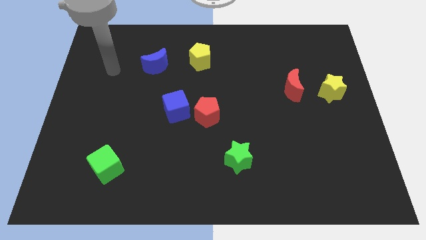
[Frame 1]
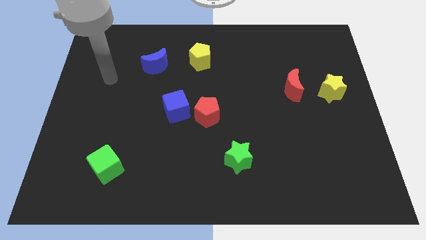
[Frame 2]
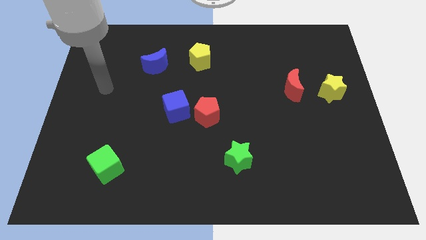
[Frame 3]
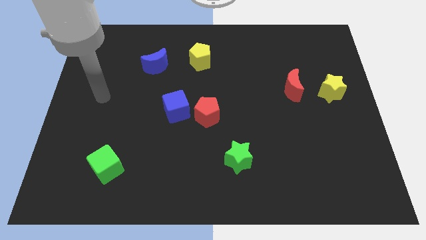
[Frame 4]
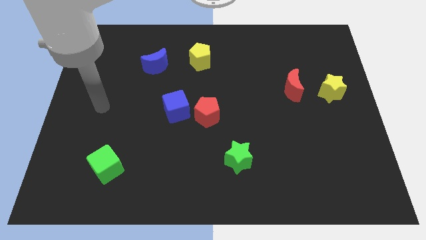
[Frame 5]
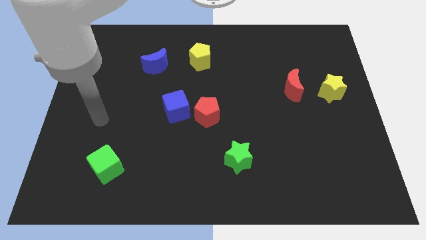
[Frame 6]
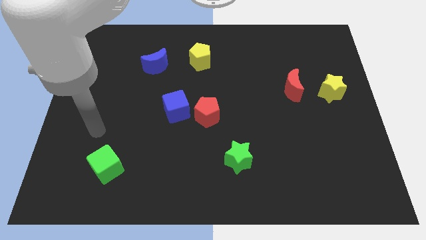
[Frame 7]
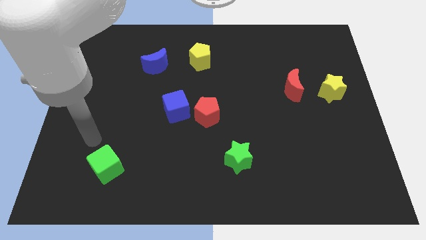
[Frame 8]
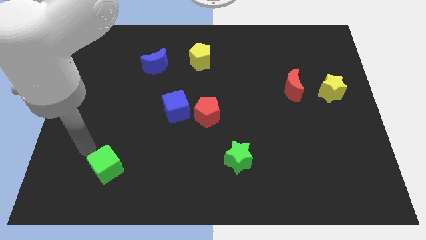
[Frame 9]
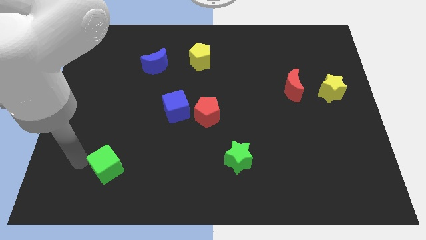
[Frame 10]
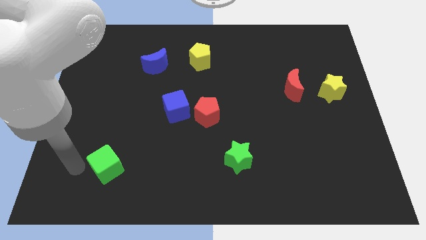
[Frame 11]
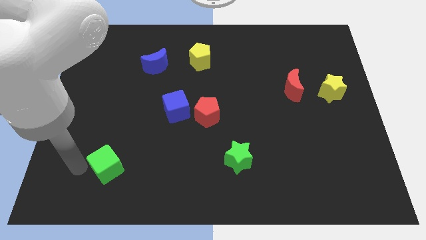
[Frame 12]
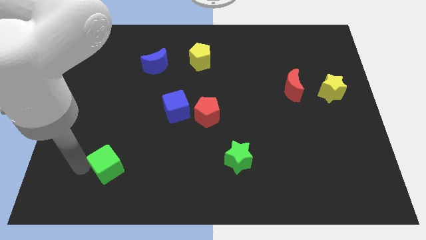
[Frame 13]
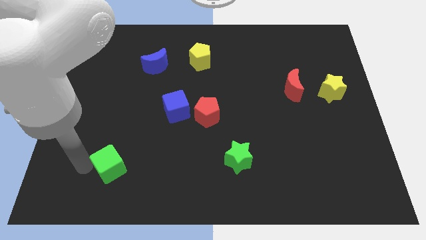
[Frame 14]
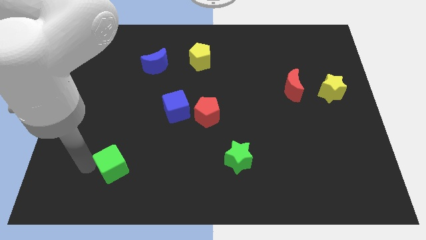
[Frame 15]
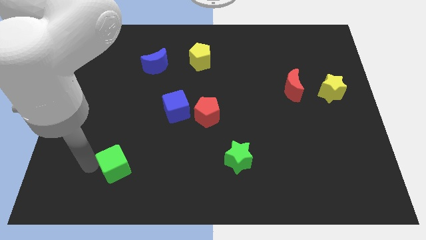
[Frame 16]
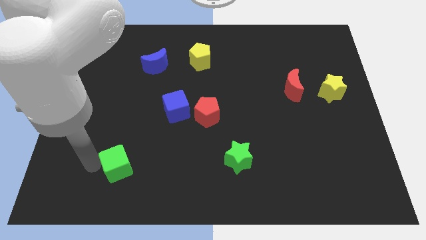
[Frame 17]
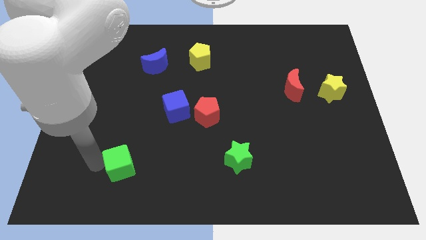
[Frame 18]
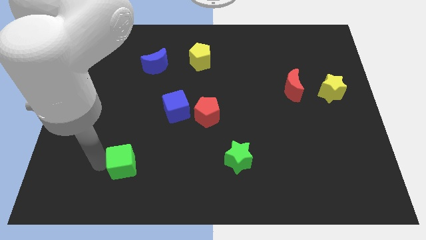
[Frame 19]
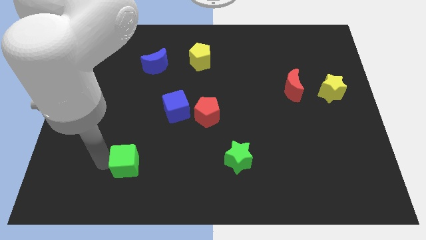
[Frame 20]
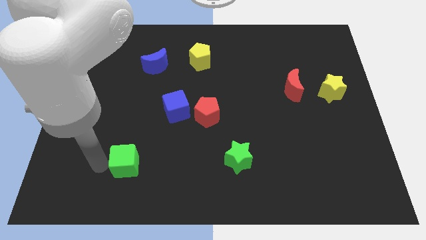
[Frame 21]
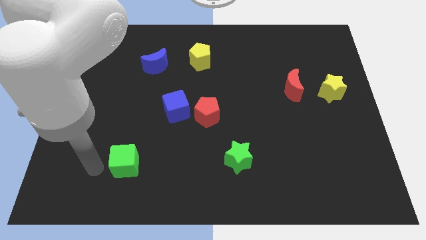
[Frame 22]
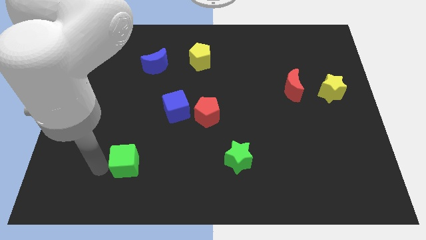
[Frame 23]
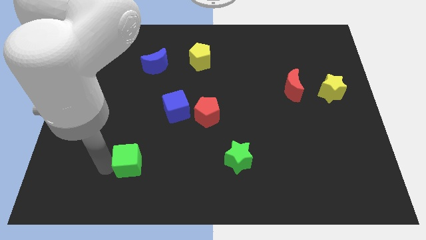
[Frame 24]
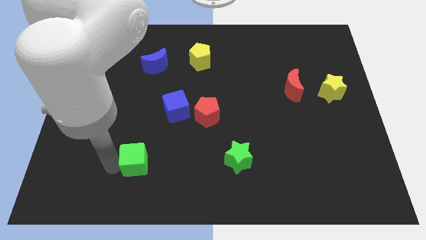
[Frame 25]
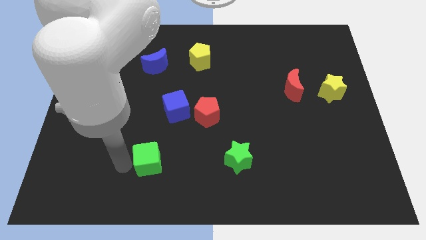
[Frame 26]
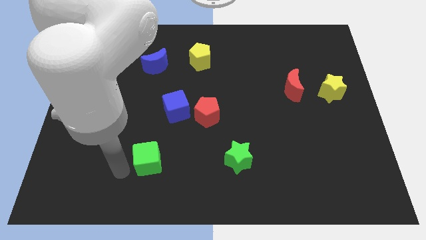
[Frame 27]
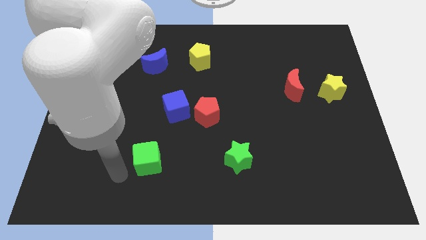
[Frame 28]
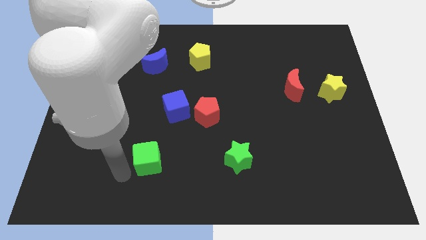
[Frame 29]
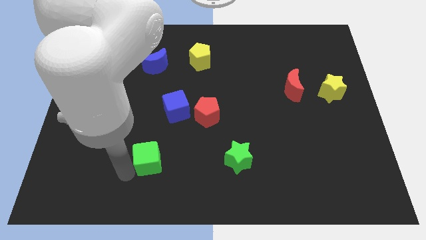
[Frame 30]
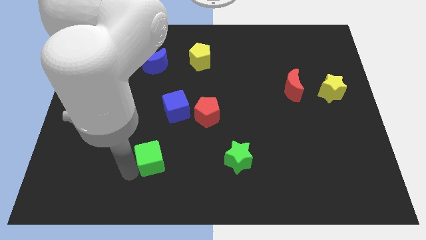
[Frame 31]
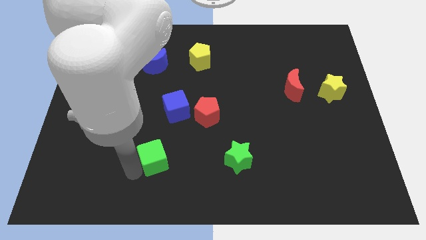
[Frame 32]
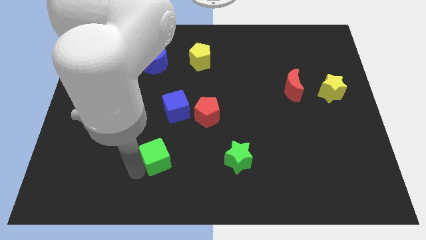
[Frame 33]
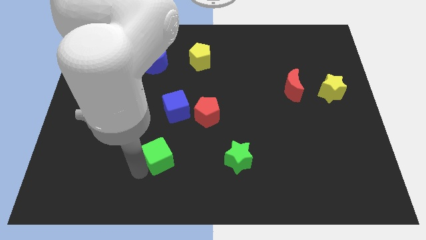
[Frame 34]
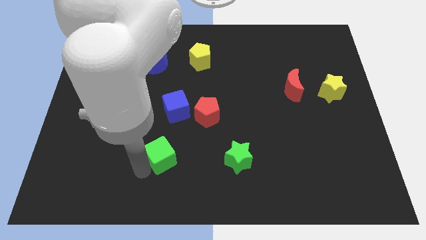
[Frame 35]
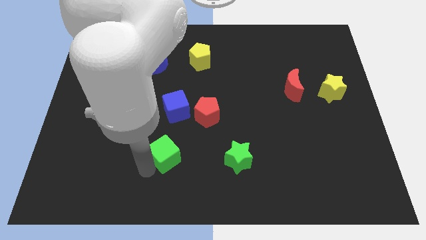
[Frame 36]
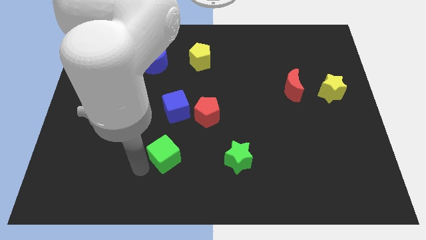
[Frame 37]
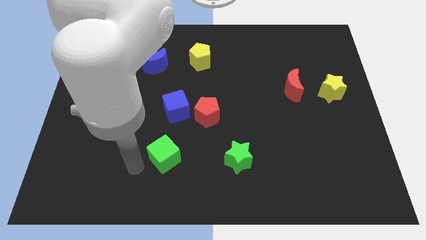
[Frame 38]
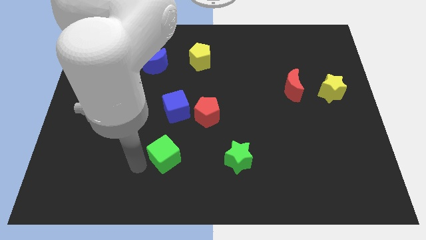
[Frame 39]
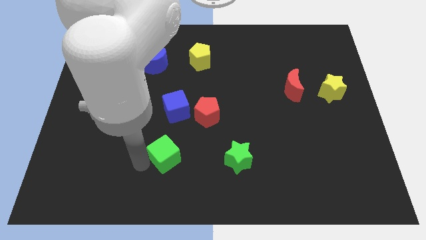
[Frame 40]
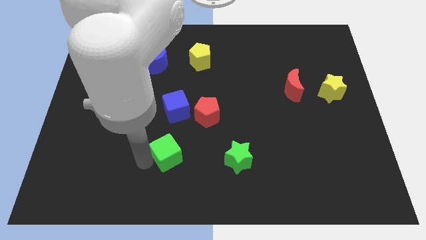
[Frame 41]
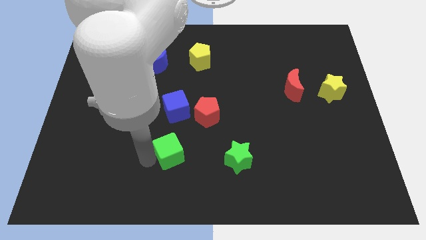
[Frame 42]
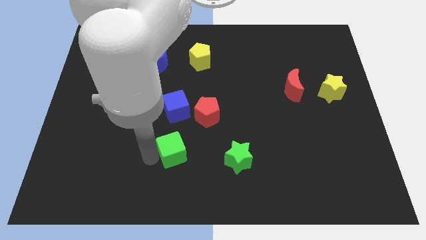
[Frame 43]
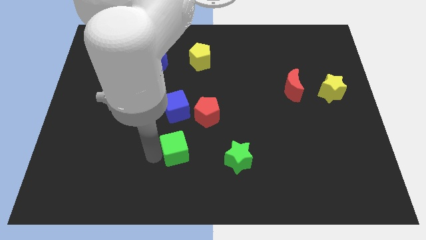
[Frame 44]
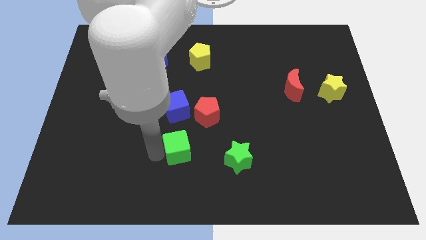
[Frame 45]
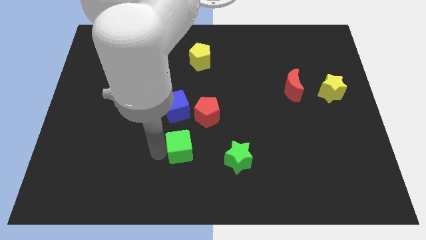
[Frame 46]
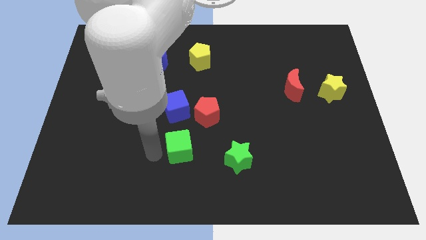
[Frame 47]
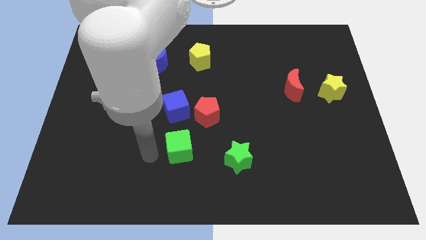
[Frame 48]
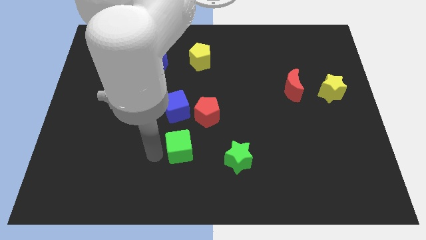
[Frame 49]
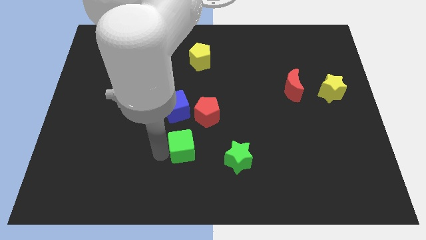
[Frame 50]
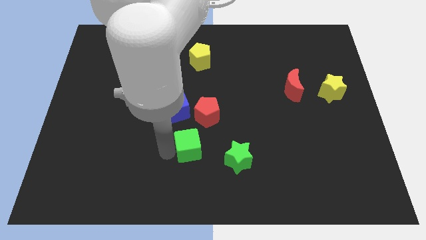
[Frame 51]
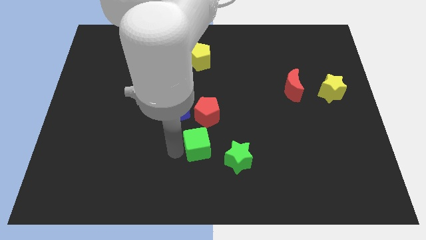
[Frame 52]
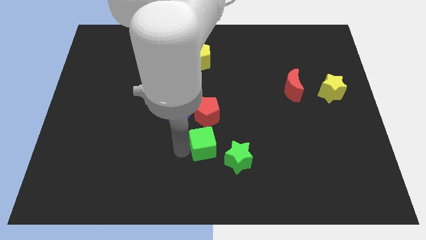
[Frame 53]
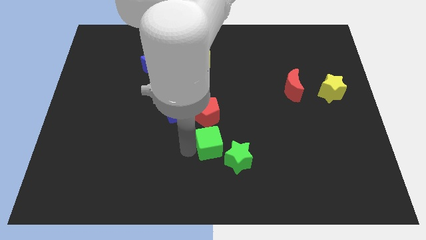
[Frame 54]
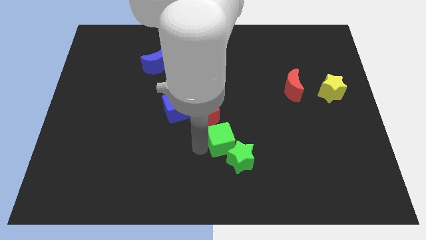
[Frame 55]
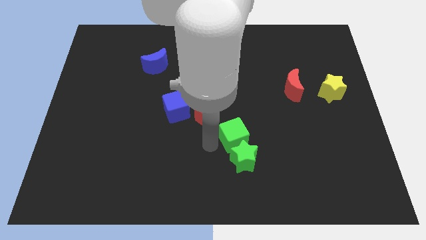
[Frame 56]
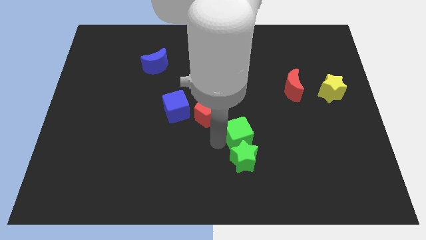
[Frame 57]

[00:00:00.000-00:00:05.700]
move the green cube diagonally up and to the right of the green star

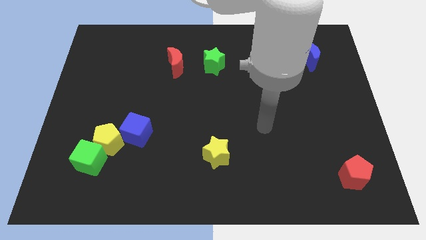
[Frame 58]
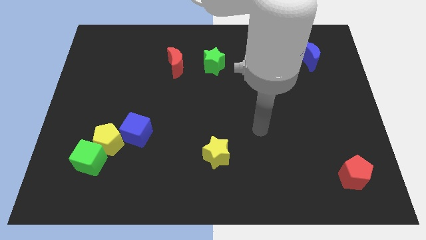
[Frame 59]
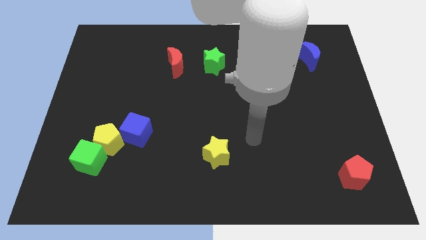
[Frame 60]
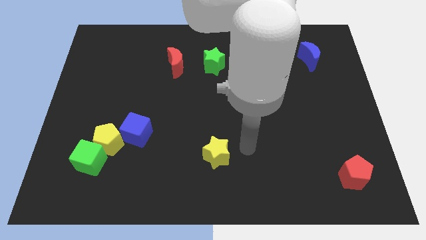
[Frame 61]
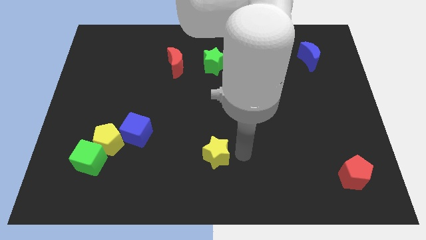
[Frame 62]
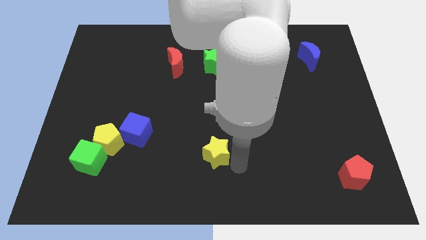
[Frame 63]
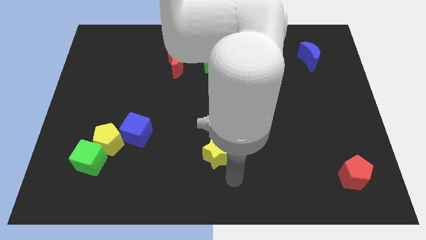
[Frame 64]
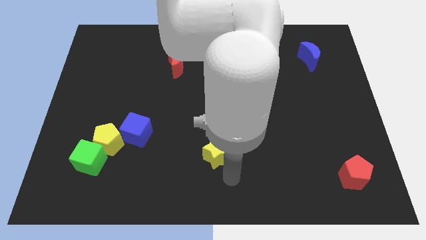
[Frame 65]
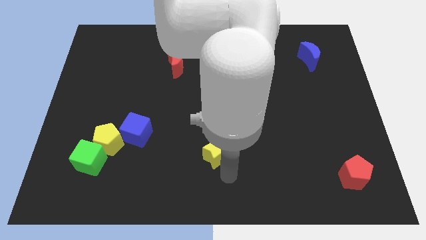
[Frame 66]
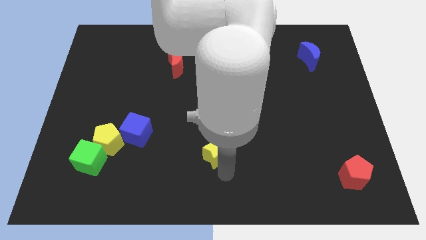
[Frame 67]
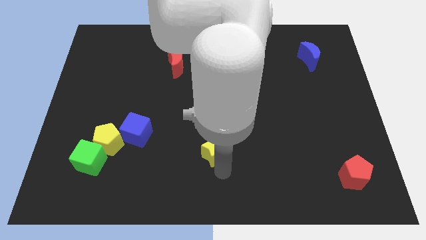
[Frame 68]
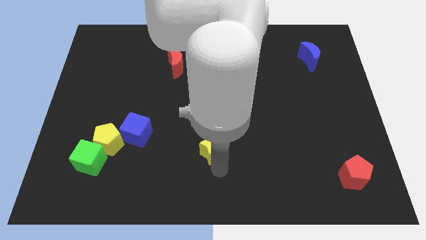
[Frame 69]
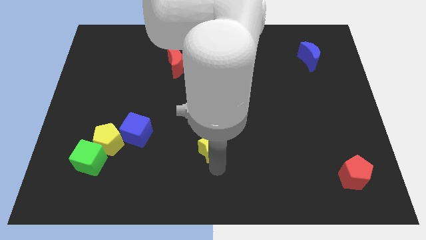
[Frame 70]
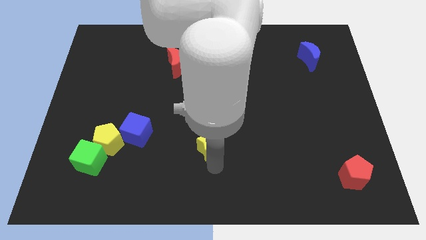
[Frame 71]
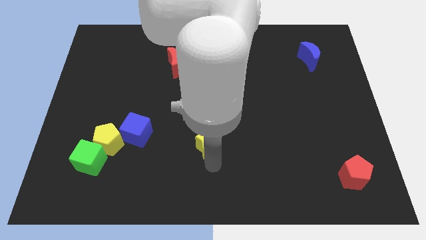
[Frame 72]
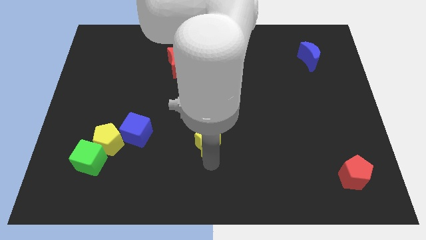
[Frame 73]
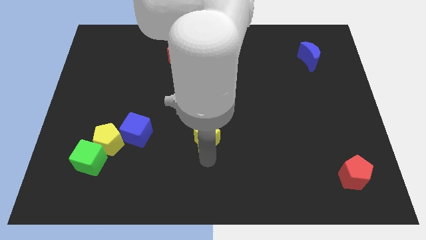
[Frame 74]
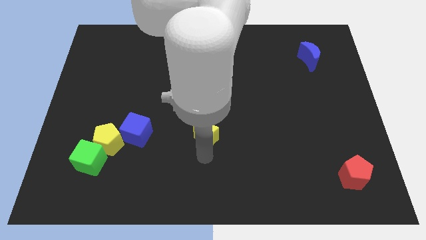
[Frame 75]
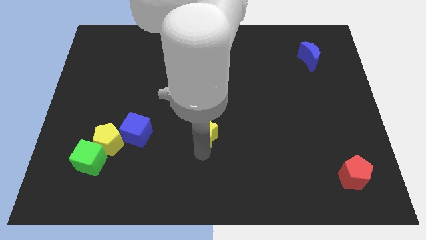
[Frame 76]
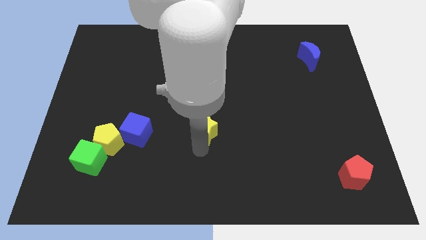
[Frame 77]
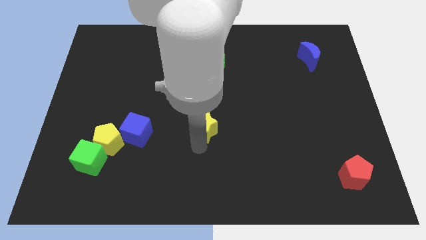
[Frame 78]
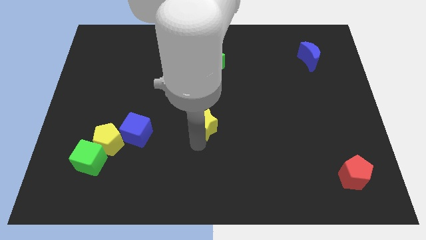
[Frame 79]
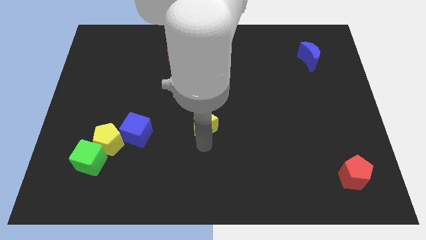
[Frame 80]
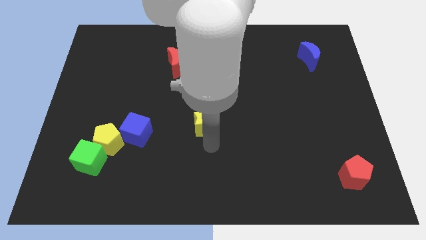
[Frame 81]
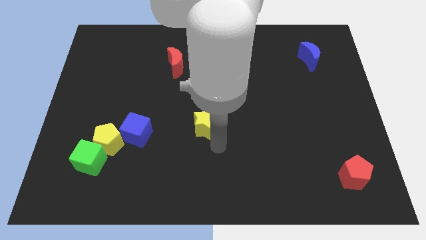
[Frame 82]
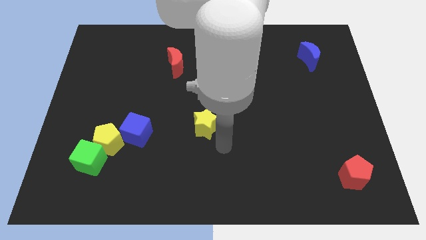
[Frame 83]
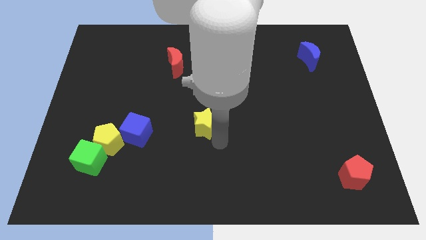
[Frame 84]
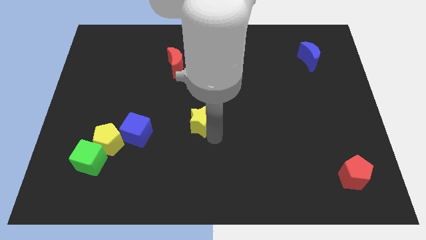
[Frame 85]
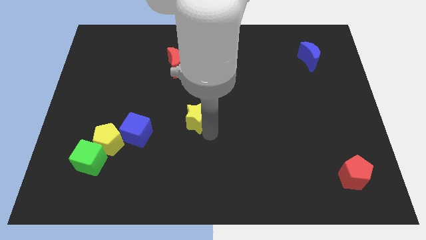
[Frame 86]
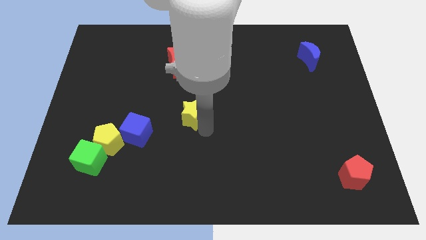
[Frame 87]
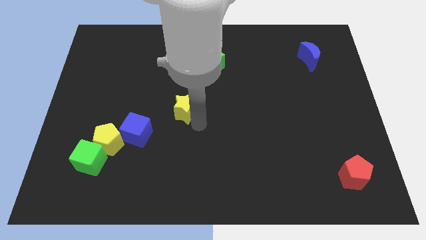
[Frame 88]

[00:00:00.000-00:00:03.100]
slide the yellow star to the bottom side of the red moon
